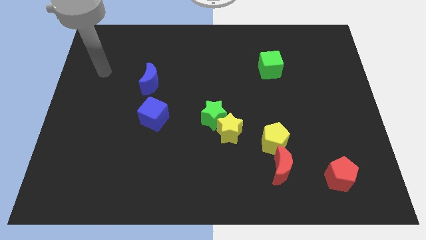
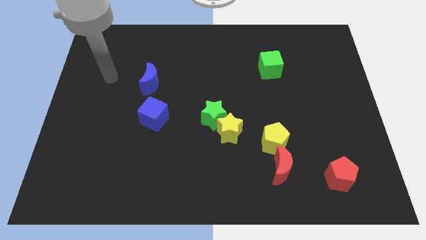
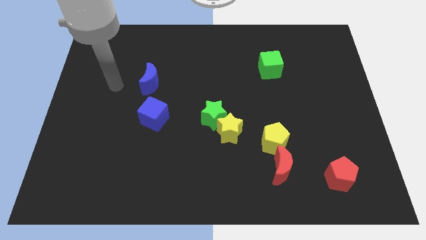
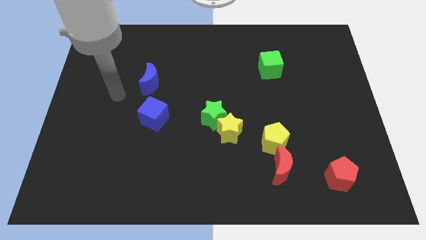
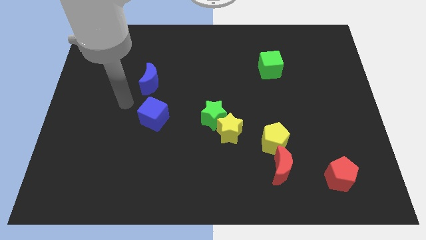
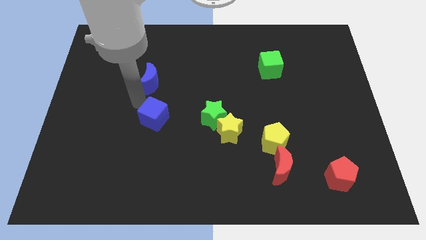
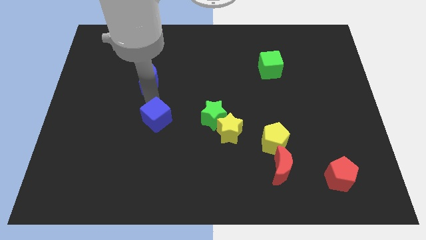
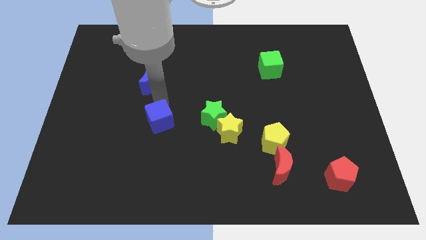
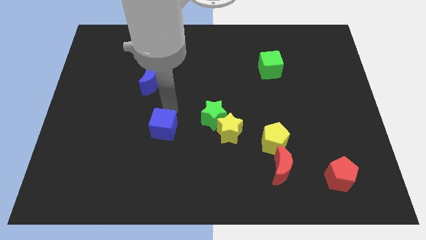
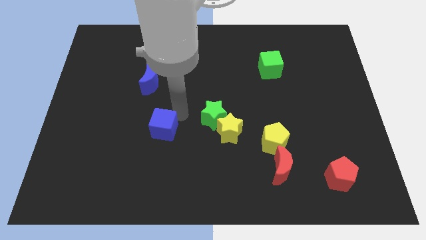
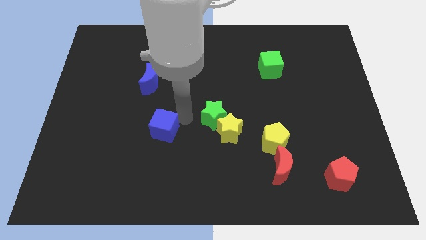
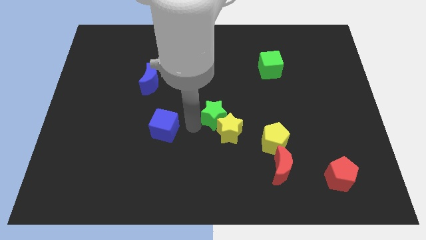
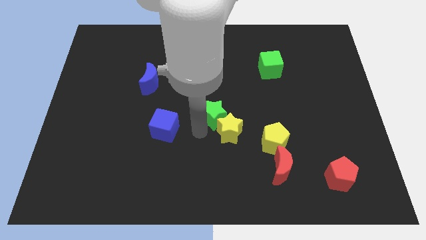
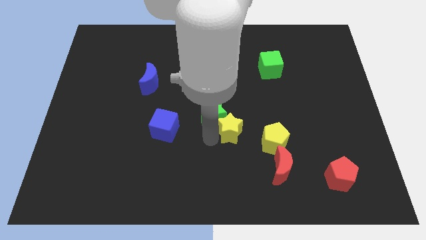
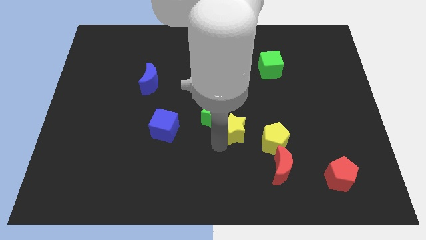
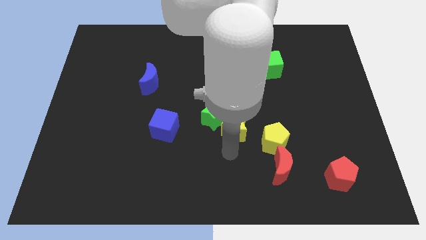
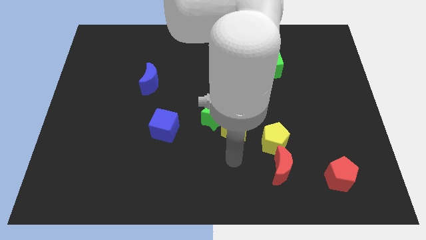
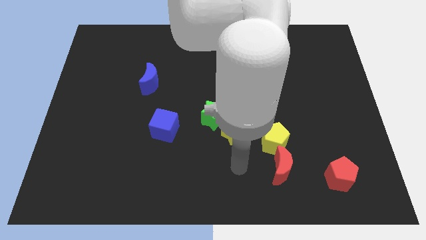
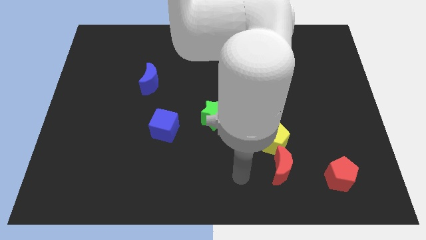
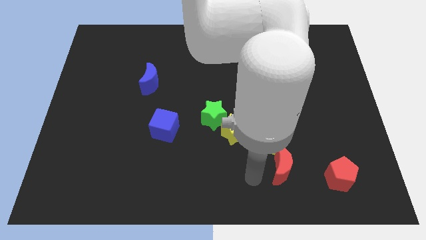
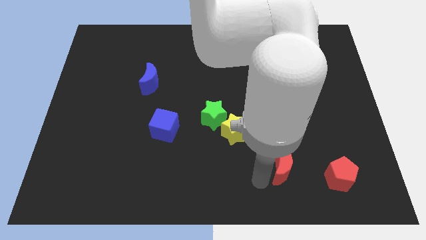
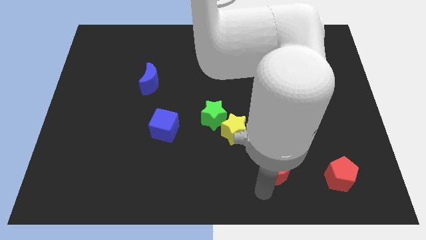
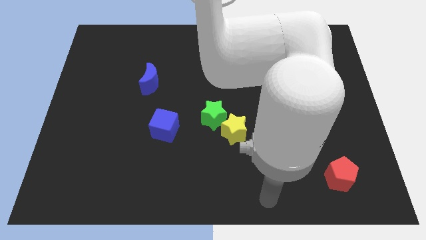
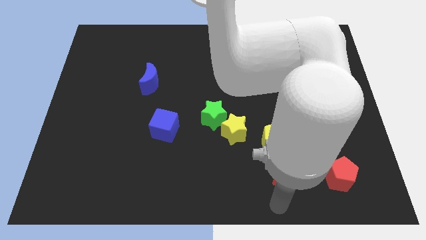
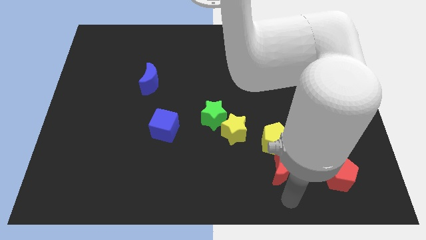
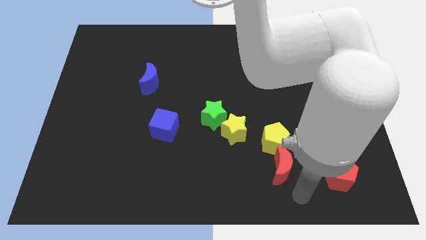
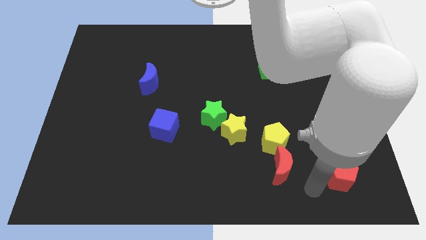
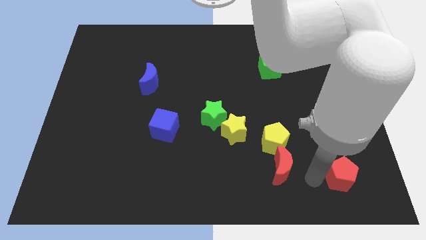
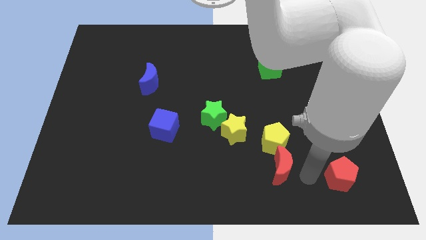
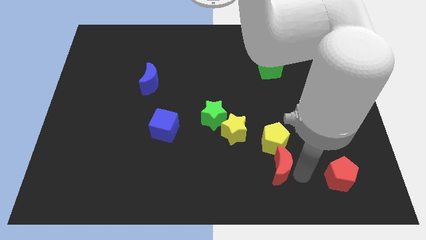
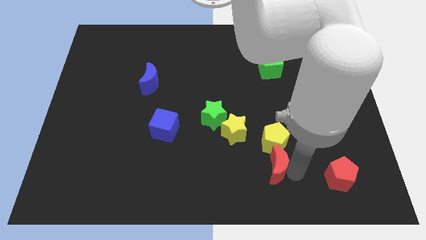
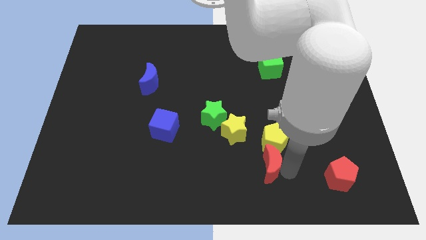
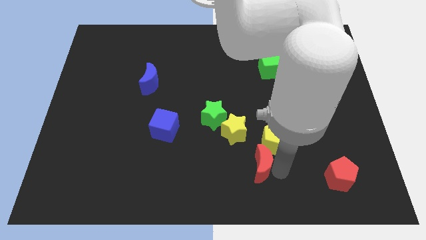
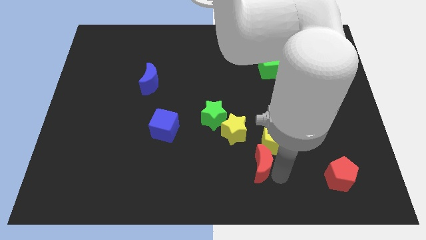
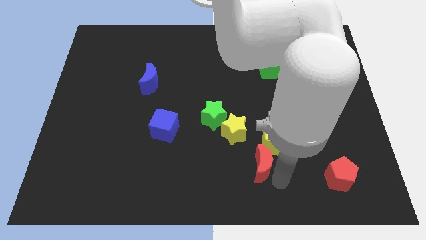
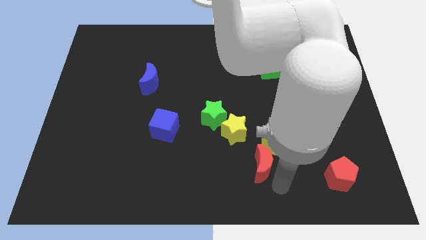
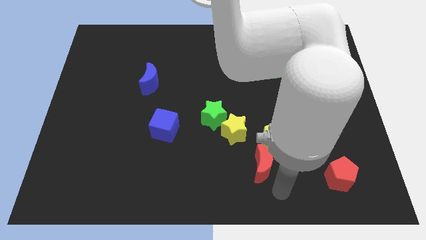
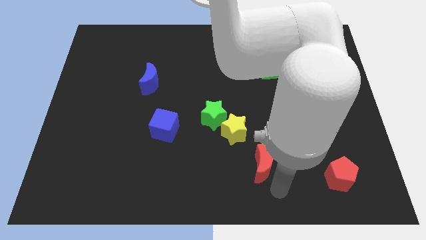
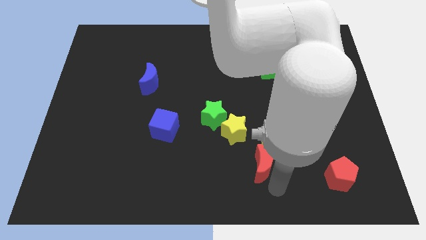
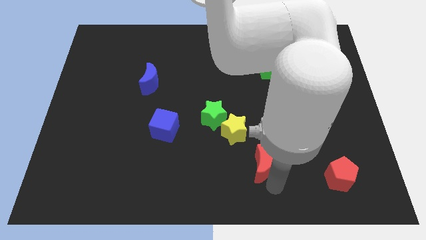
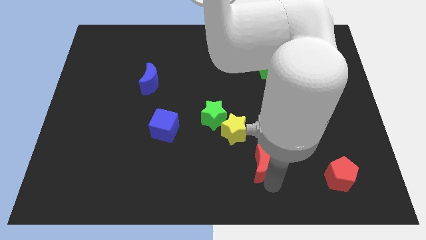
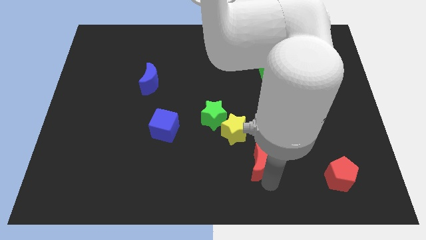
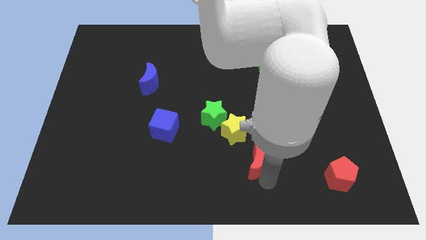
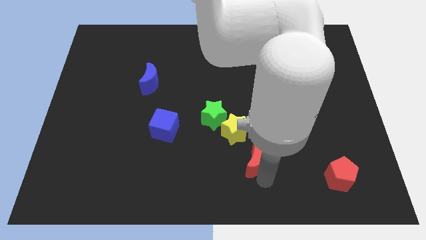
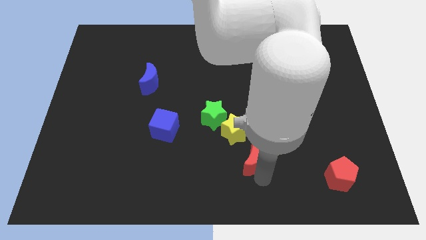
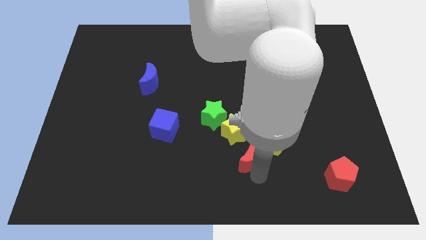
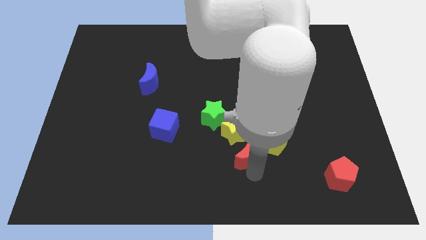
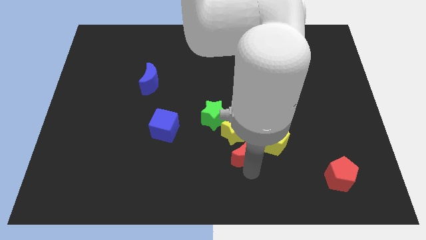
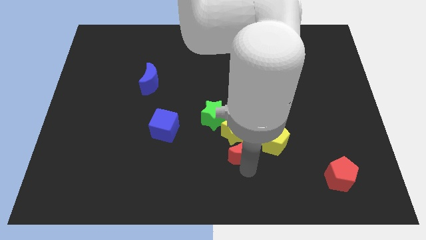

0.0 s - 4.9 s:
move the red moon next to the yellow star

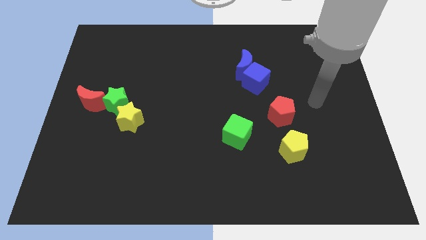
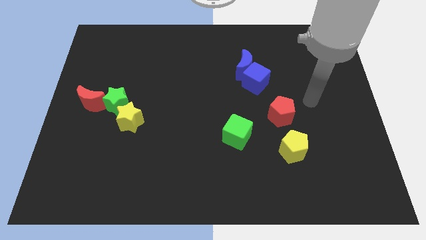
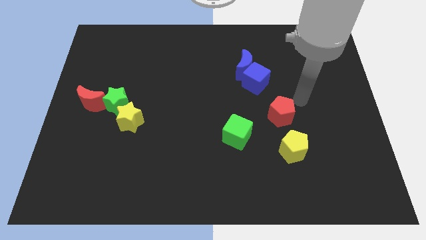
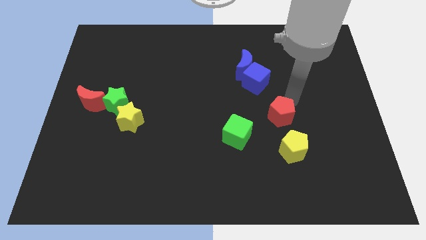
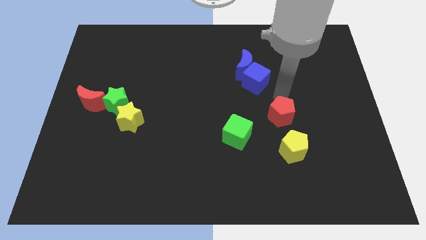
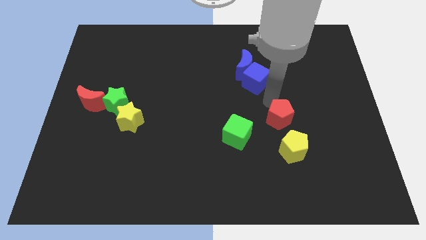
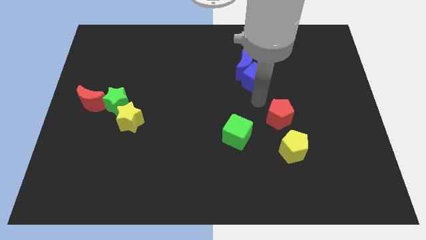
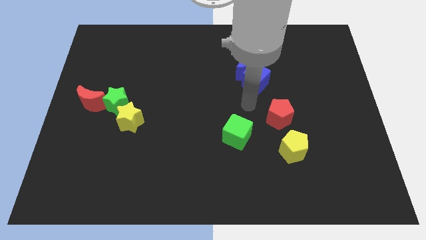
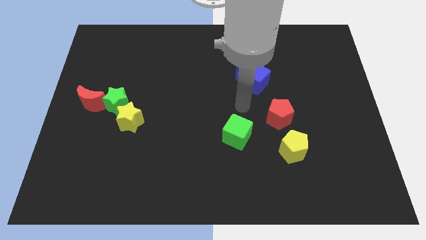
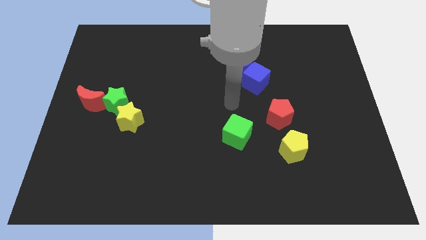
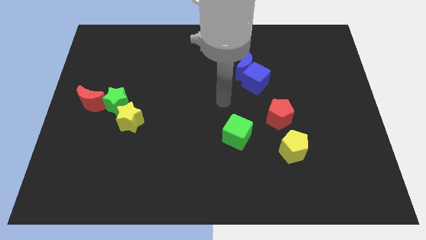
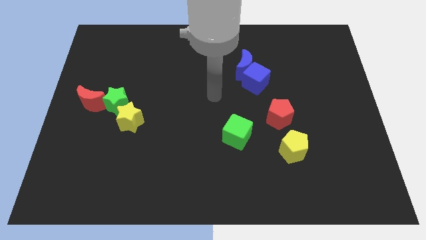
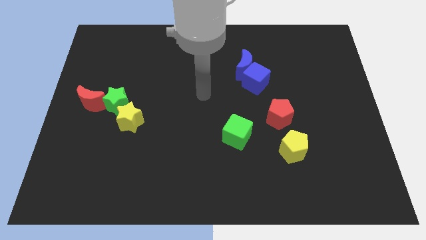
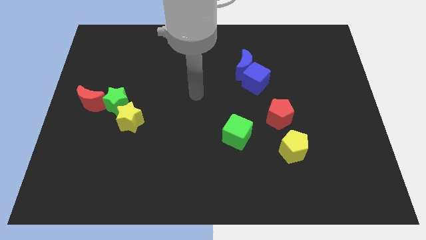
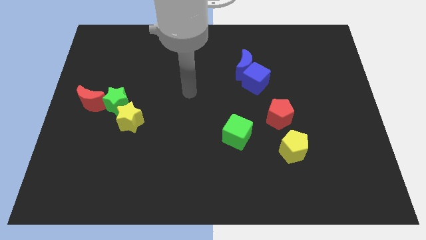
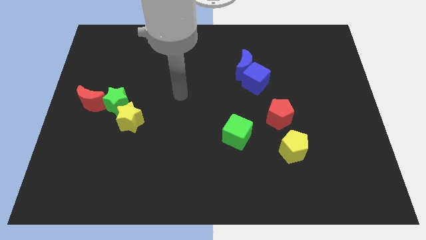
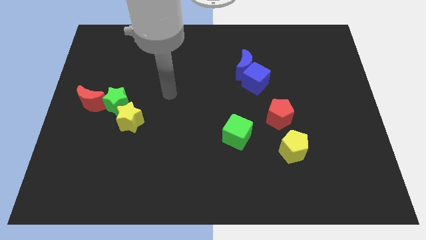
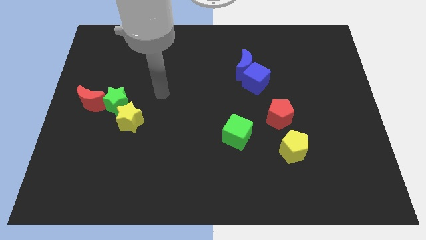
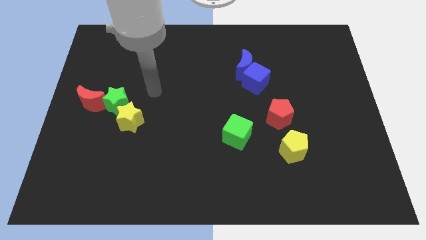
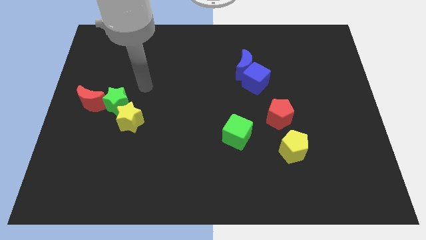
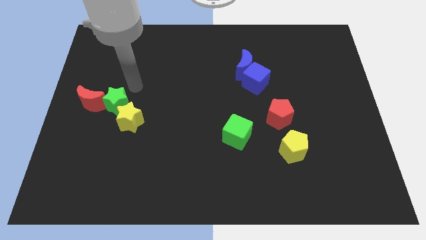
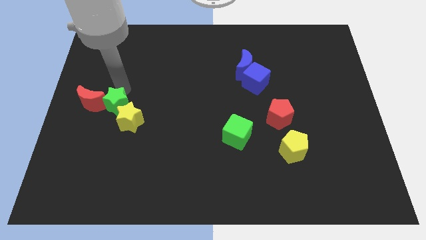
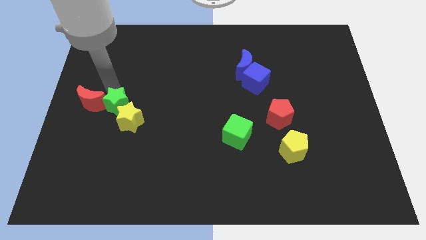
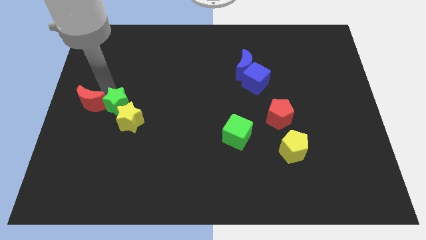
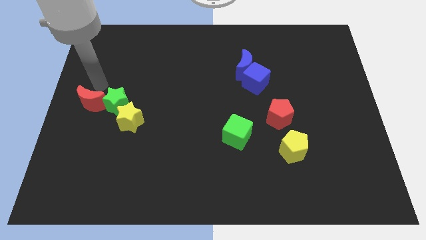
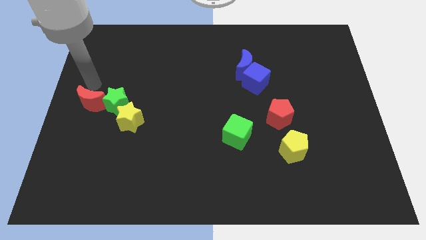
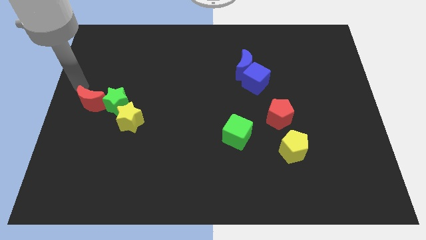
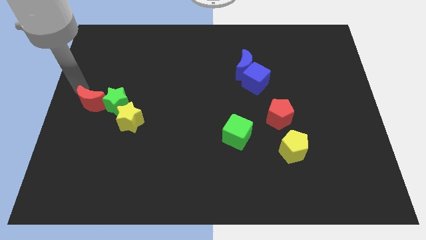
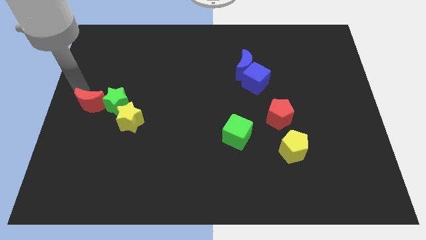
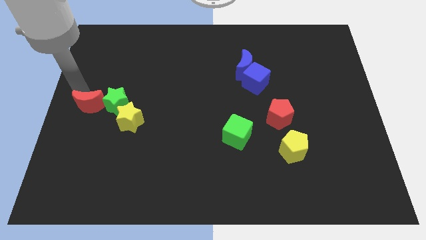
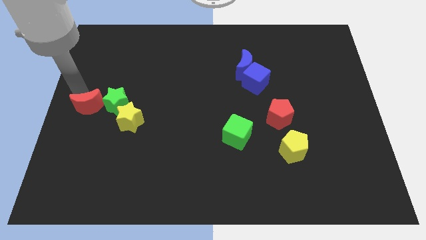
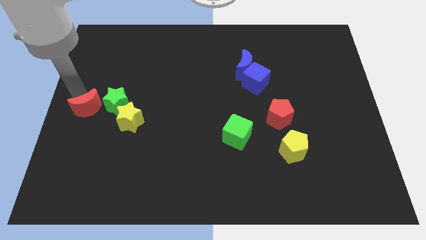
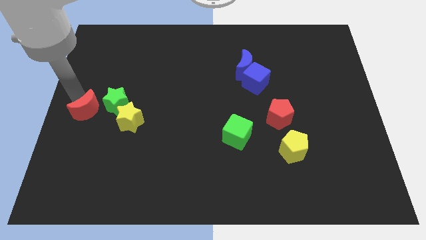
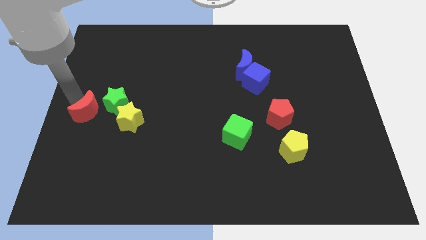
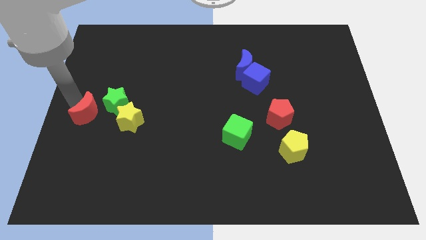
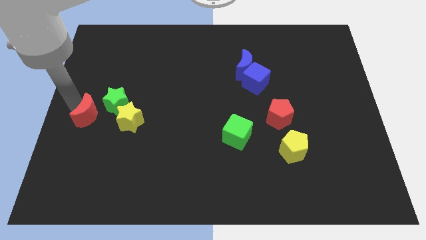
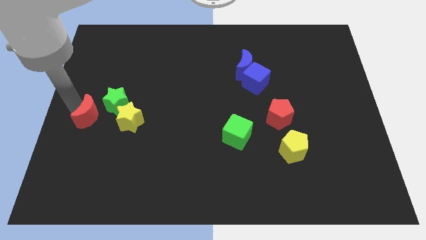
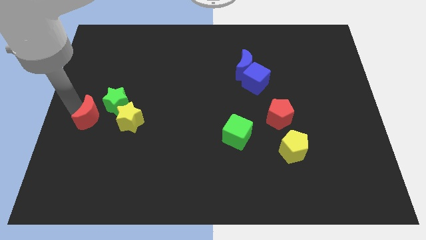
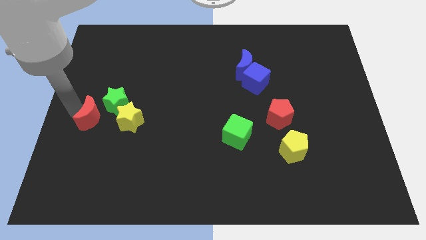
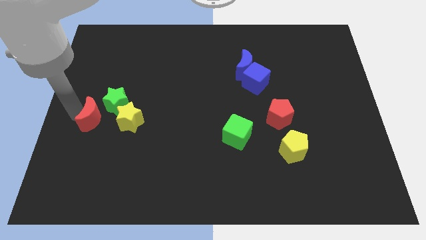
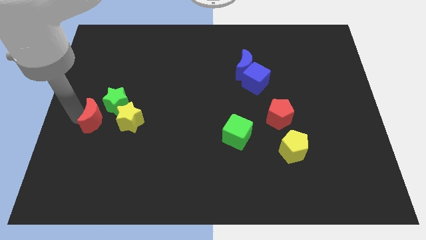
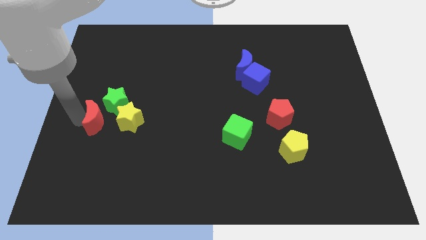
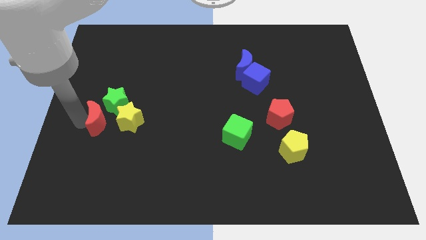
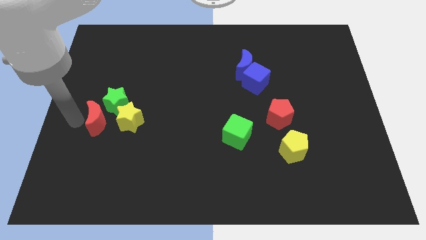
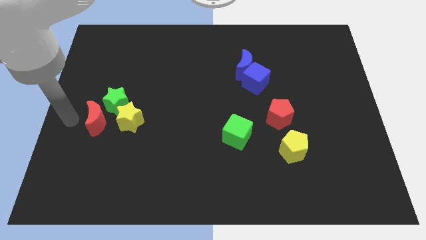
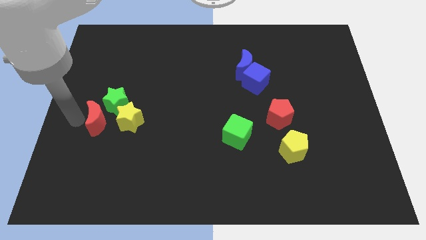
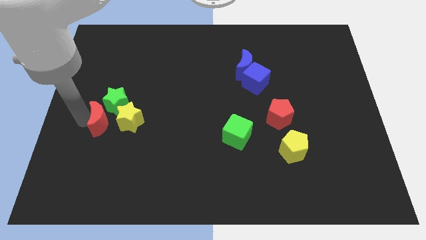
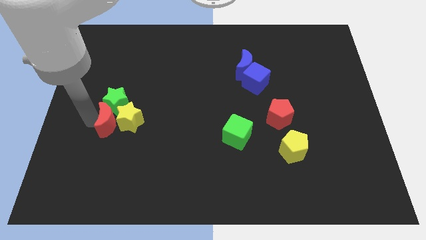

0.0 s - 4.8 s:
push the red moon close to the yellow star
